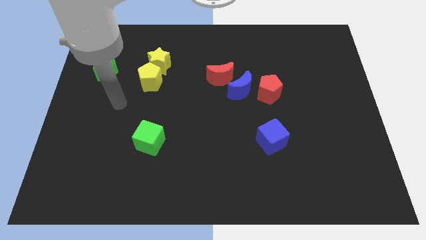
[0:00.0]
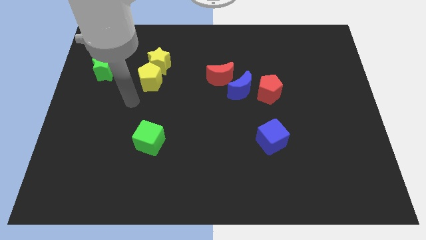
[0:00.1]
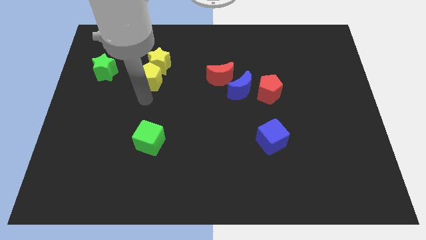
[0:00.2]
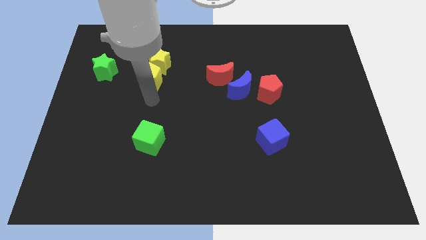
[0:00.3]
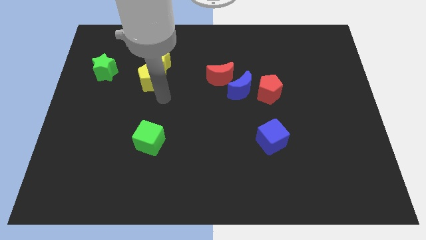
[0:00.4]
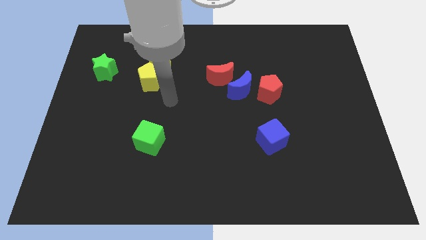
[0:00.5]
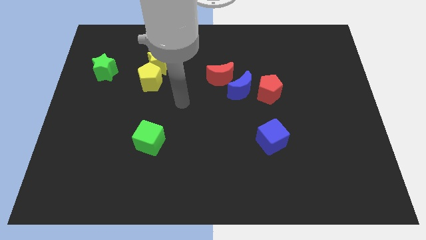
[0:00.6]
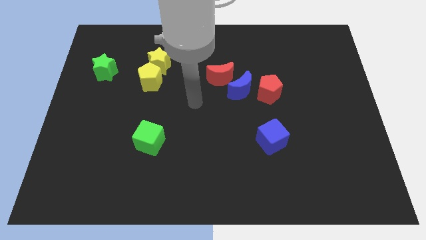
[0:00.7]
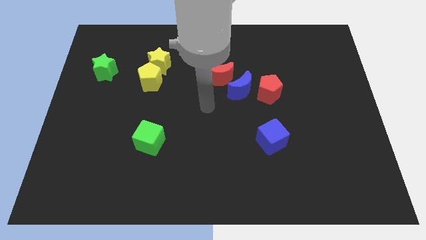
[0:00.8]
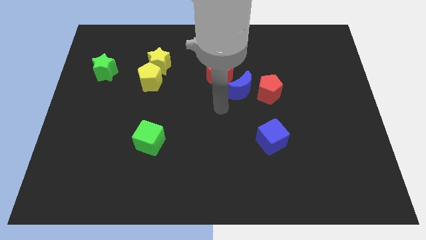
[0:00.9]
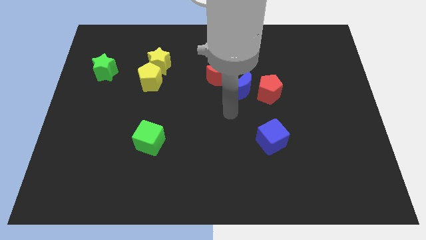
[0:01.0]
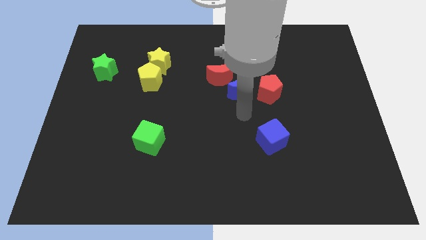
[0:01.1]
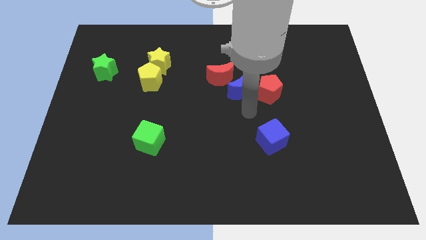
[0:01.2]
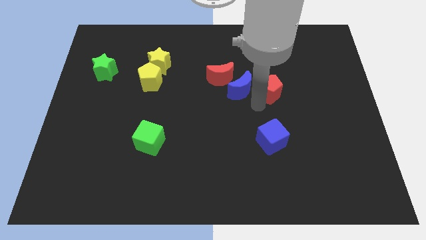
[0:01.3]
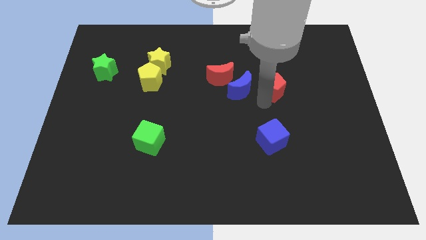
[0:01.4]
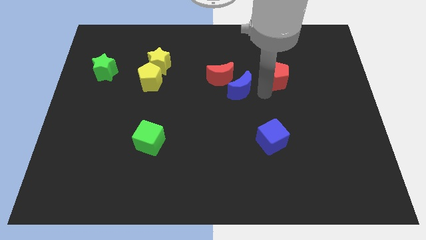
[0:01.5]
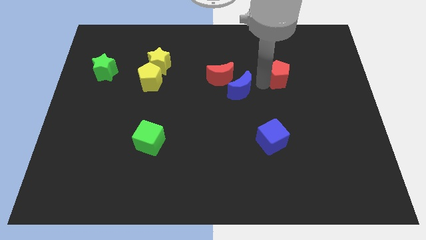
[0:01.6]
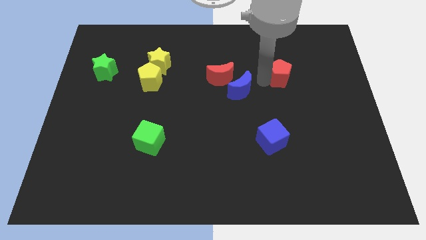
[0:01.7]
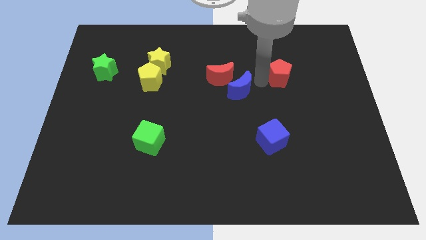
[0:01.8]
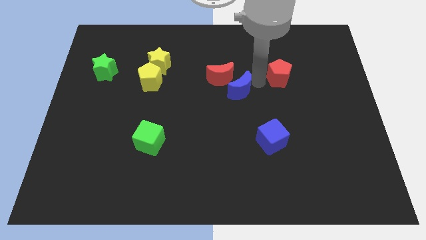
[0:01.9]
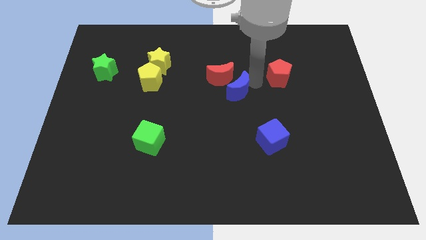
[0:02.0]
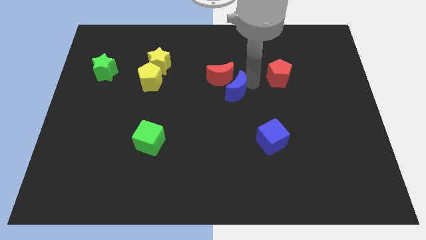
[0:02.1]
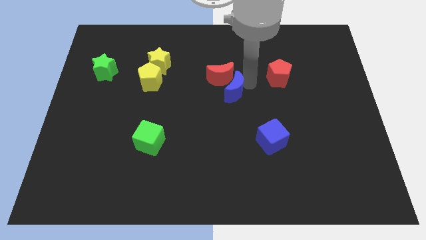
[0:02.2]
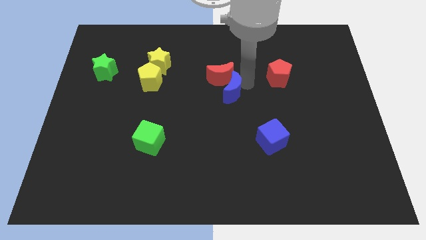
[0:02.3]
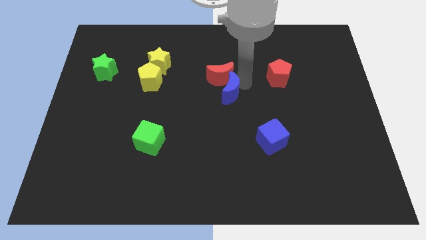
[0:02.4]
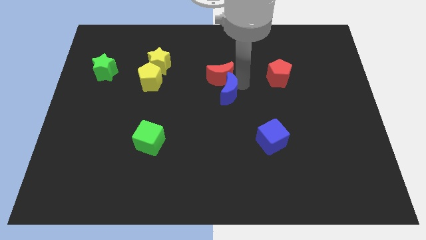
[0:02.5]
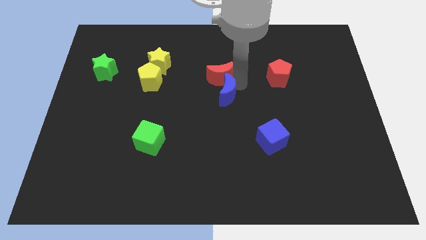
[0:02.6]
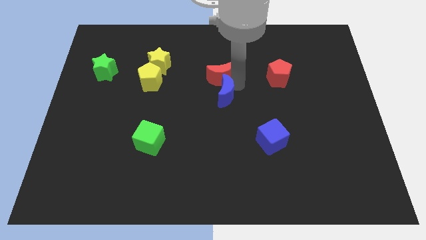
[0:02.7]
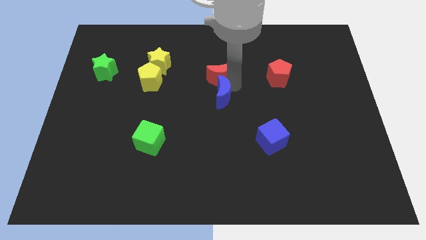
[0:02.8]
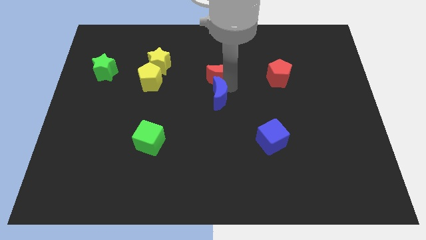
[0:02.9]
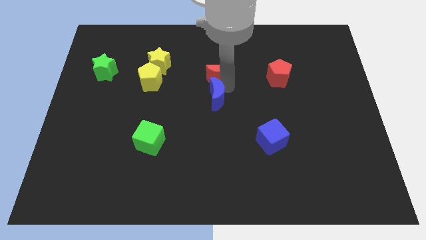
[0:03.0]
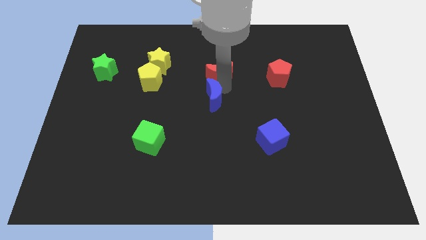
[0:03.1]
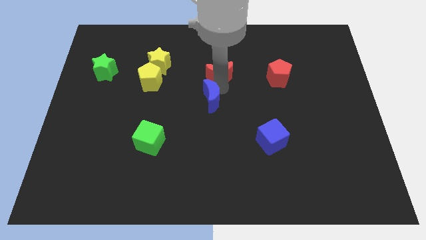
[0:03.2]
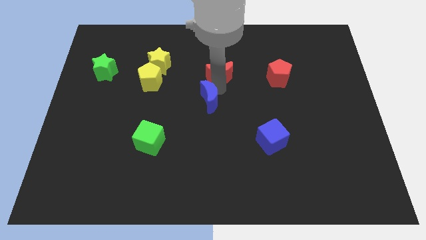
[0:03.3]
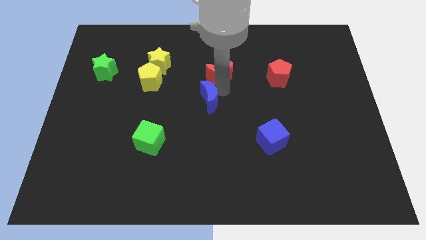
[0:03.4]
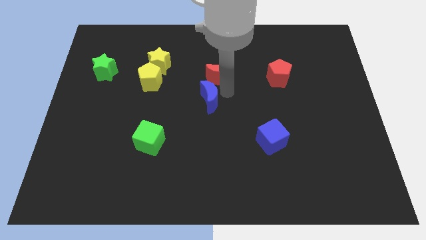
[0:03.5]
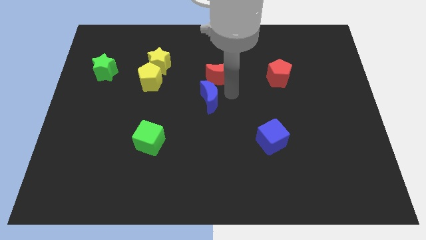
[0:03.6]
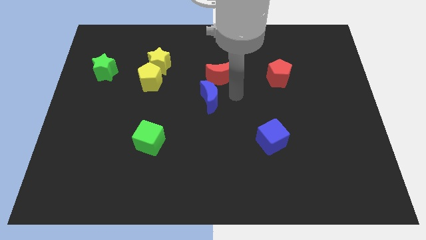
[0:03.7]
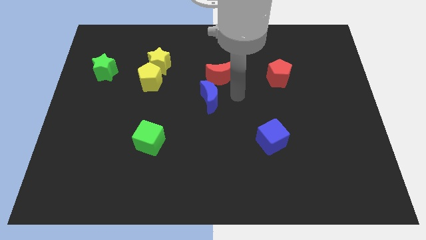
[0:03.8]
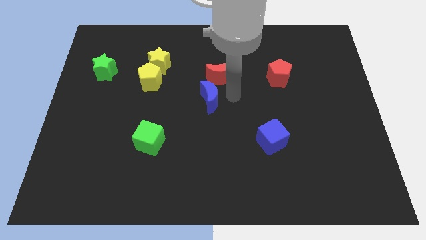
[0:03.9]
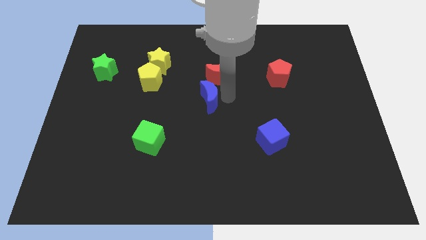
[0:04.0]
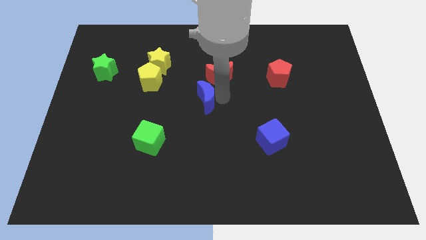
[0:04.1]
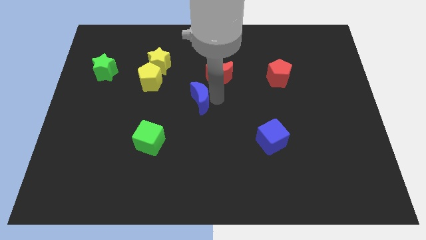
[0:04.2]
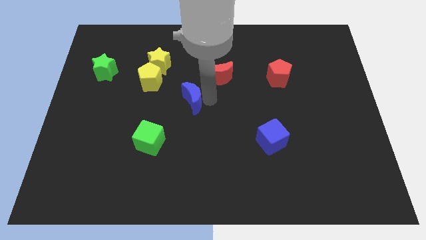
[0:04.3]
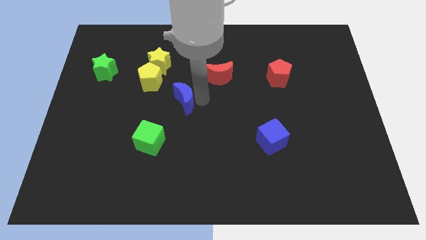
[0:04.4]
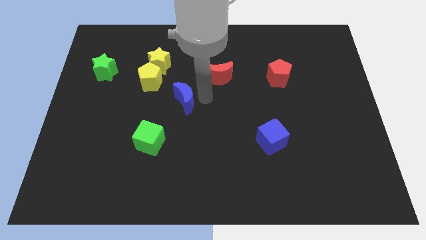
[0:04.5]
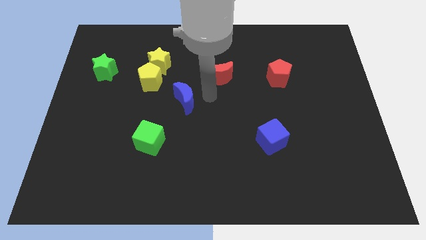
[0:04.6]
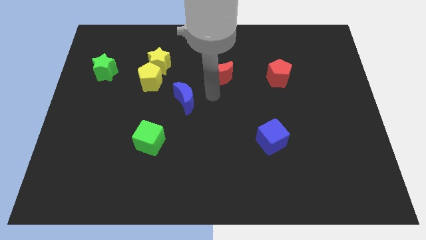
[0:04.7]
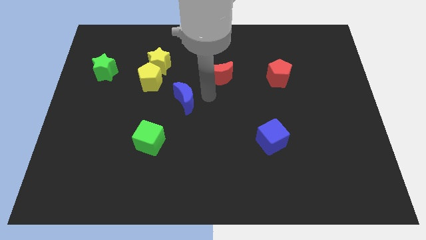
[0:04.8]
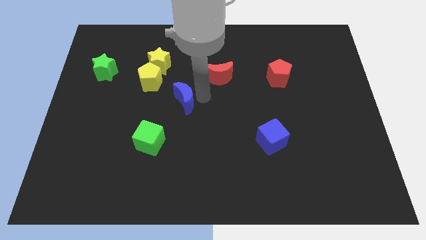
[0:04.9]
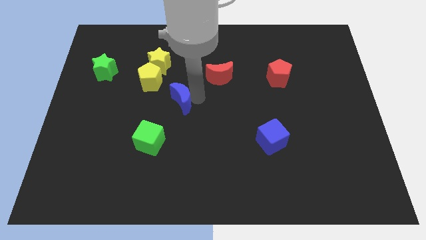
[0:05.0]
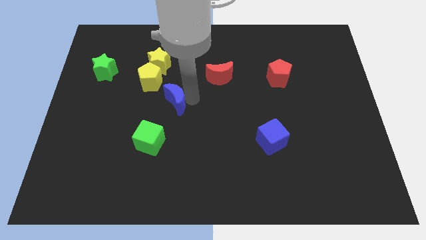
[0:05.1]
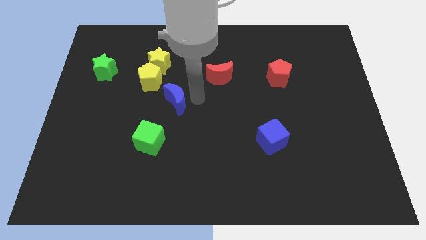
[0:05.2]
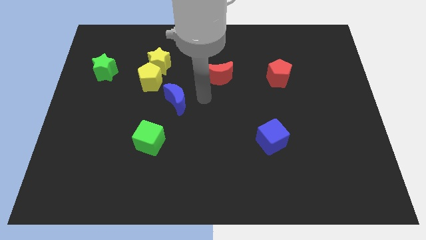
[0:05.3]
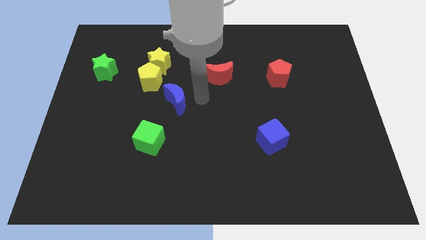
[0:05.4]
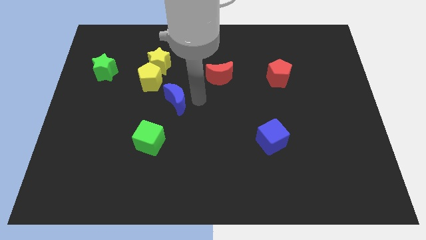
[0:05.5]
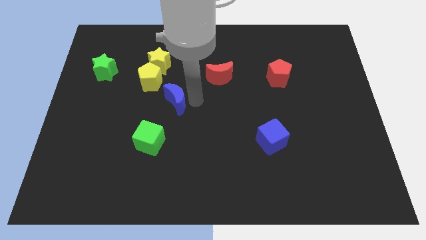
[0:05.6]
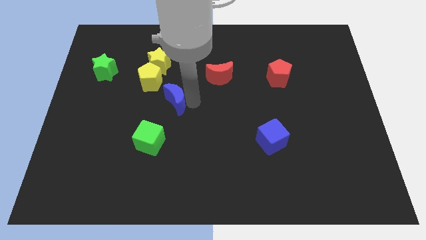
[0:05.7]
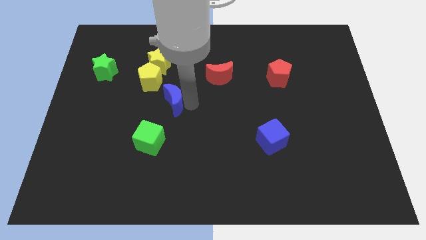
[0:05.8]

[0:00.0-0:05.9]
move the blue moon above the green cube

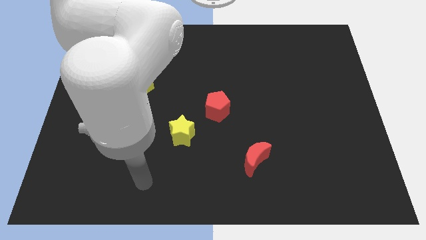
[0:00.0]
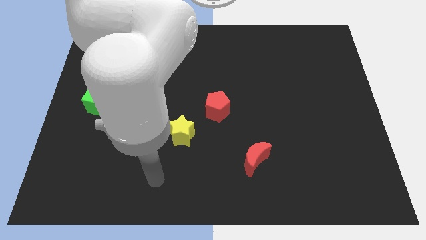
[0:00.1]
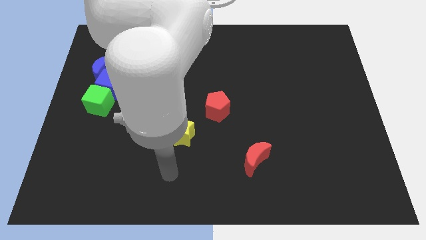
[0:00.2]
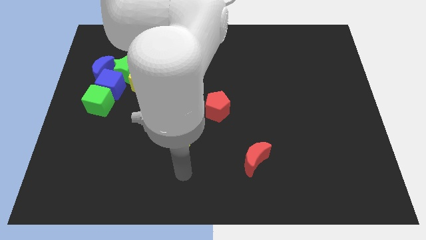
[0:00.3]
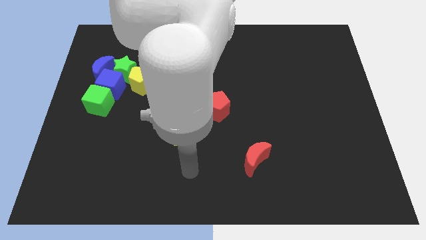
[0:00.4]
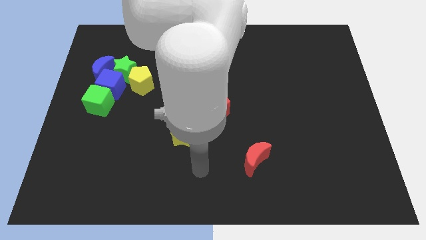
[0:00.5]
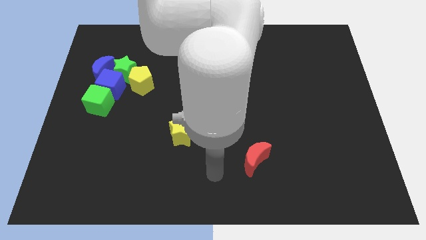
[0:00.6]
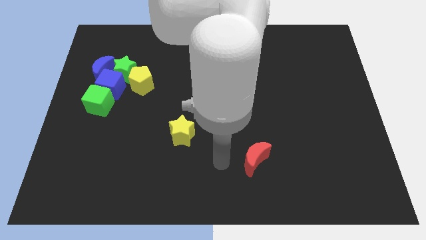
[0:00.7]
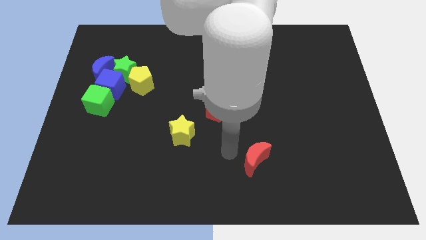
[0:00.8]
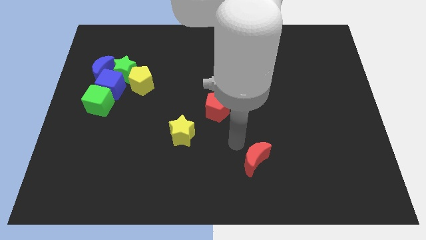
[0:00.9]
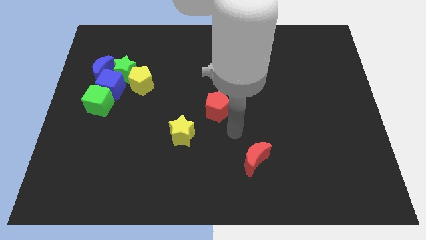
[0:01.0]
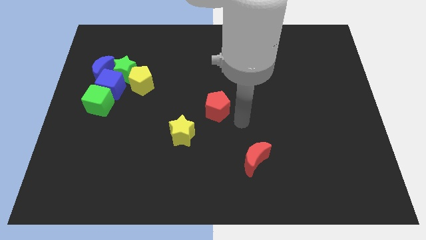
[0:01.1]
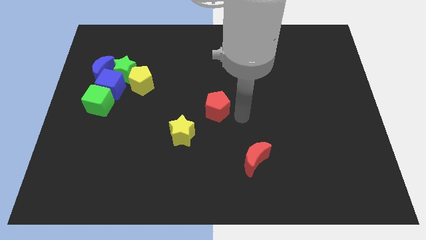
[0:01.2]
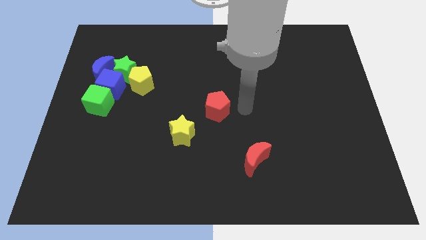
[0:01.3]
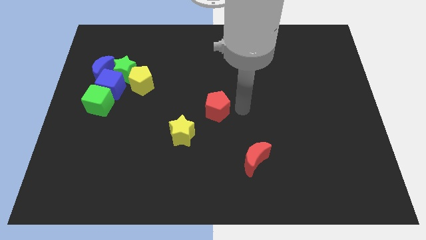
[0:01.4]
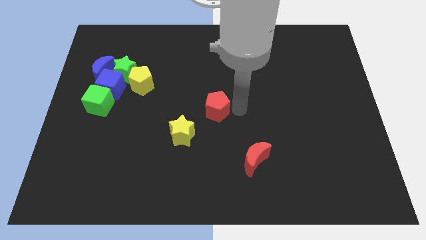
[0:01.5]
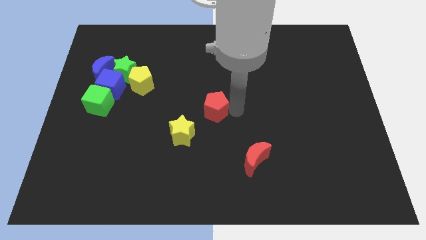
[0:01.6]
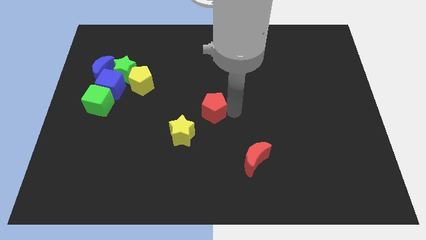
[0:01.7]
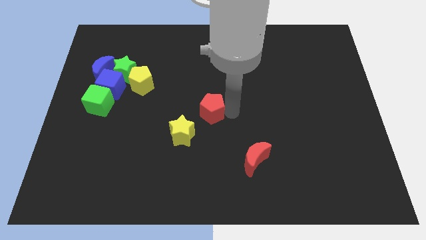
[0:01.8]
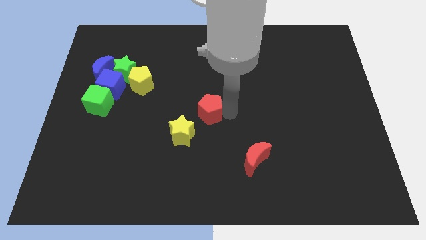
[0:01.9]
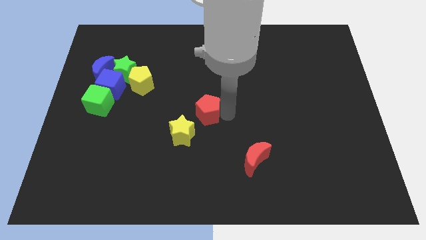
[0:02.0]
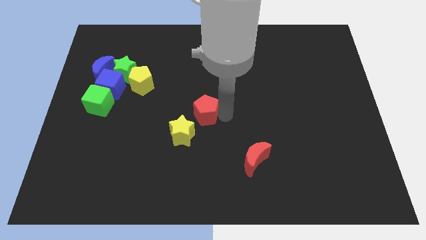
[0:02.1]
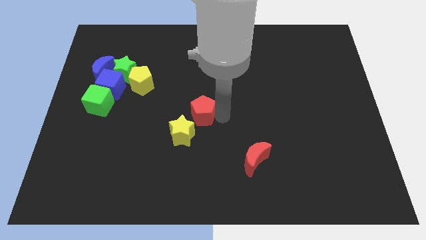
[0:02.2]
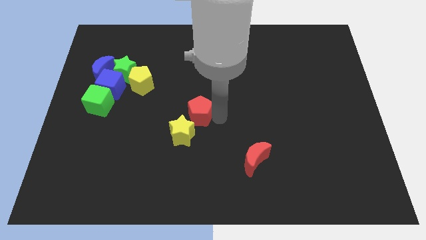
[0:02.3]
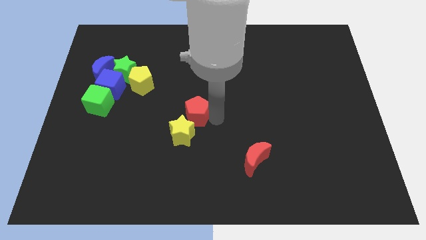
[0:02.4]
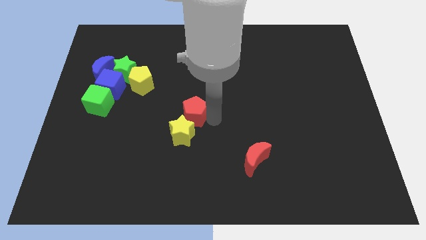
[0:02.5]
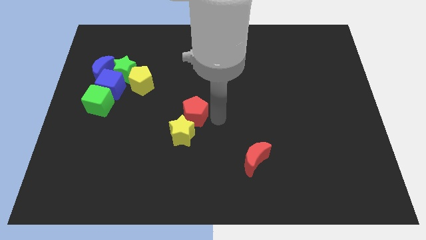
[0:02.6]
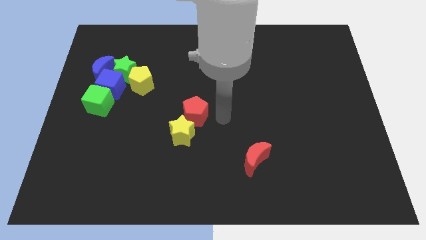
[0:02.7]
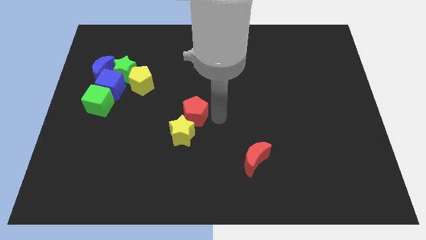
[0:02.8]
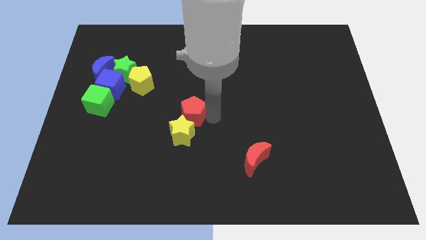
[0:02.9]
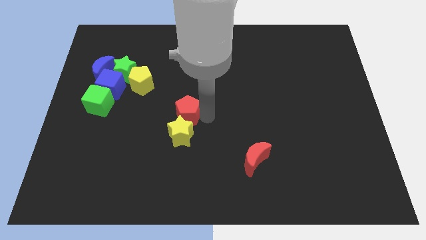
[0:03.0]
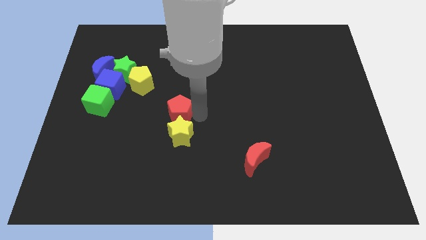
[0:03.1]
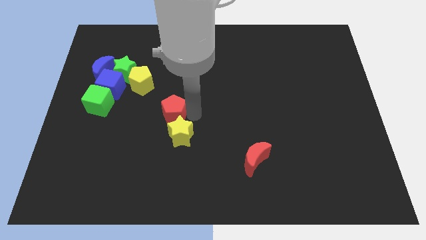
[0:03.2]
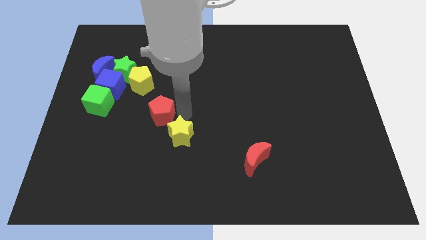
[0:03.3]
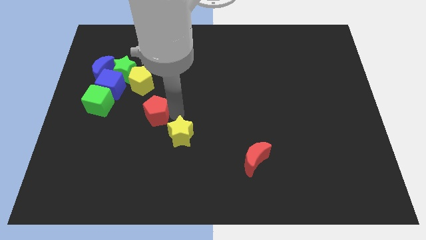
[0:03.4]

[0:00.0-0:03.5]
put the red pentagon below the yellow pentagon
